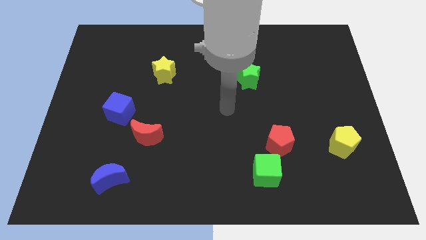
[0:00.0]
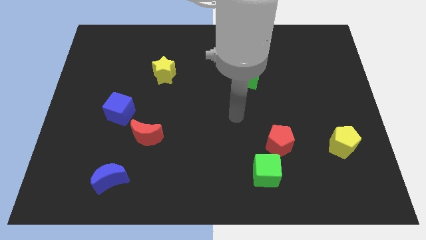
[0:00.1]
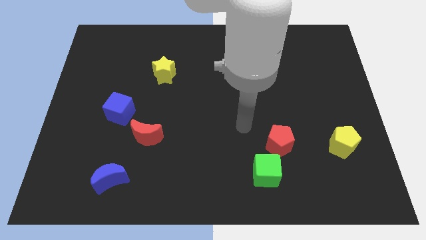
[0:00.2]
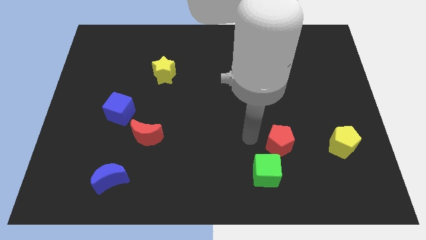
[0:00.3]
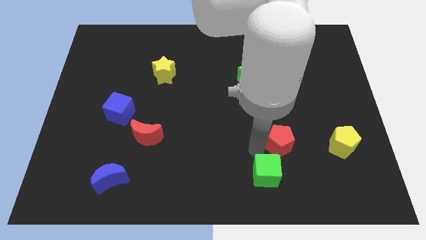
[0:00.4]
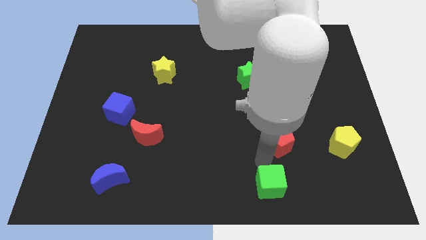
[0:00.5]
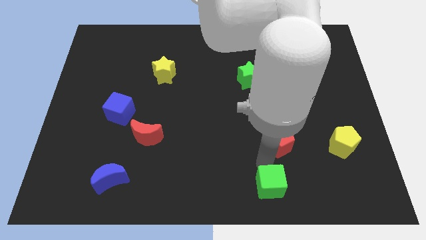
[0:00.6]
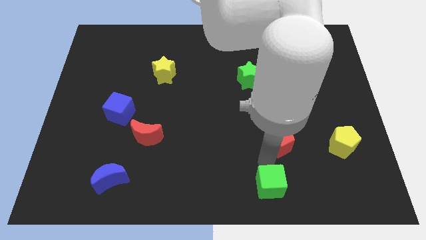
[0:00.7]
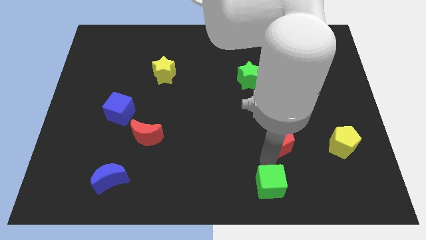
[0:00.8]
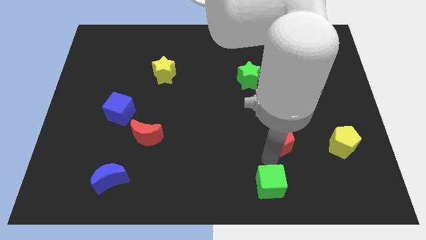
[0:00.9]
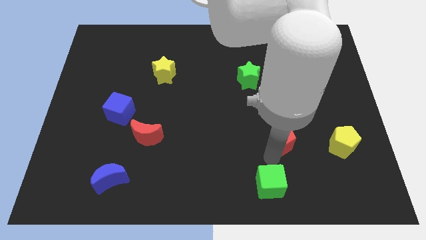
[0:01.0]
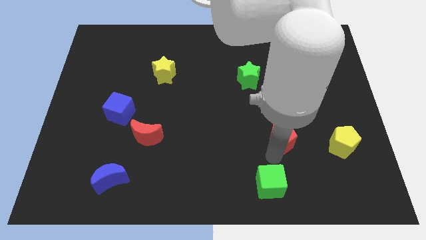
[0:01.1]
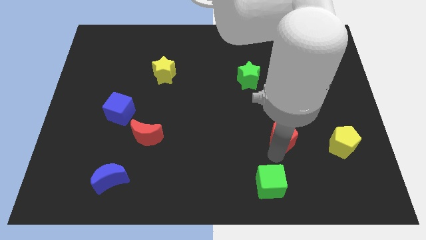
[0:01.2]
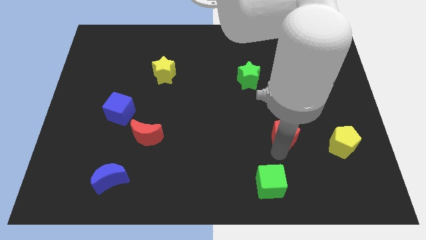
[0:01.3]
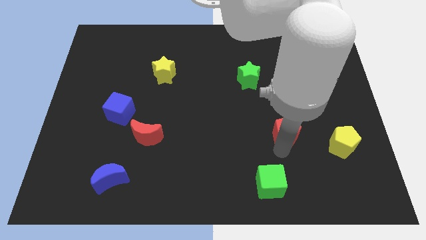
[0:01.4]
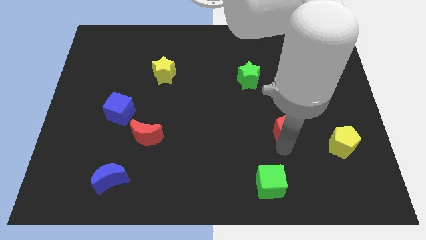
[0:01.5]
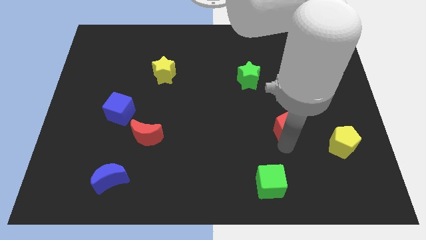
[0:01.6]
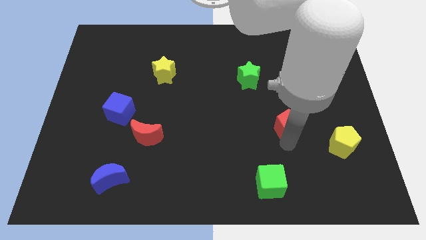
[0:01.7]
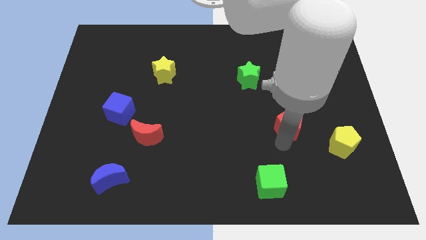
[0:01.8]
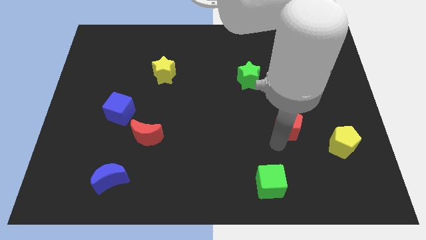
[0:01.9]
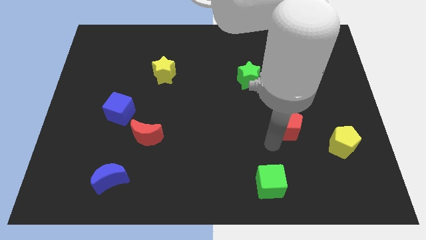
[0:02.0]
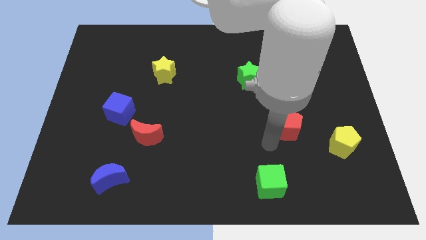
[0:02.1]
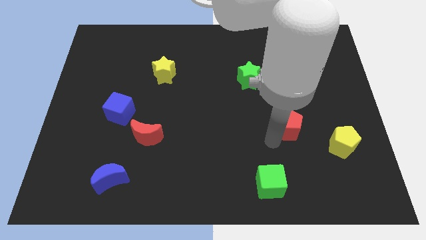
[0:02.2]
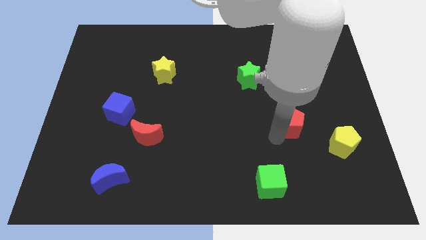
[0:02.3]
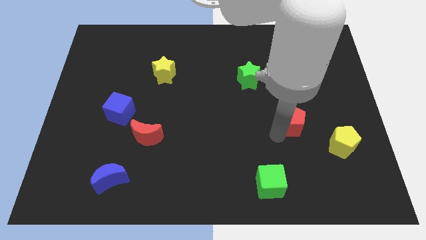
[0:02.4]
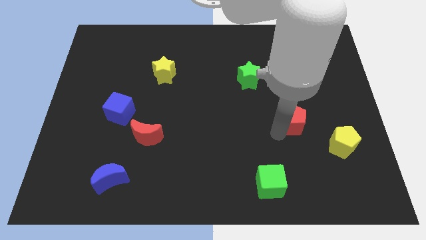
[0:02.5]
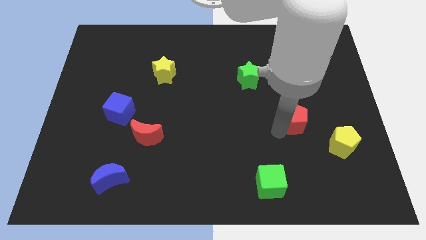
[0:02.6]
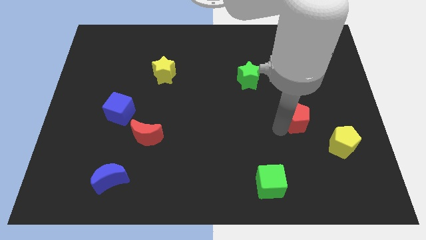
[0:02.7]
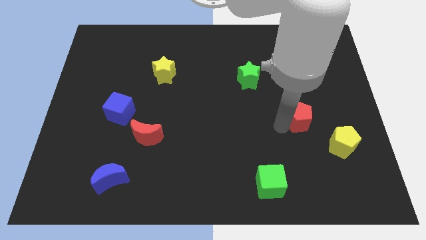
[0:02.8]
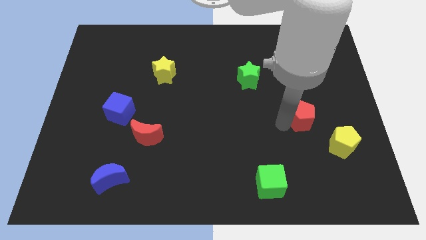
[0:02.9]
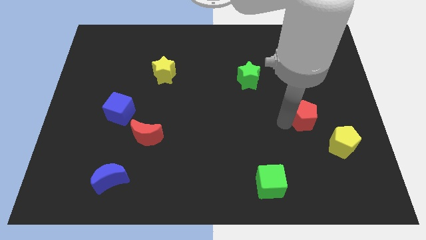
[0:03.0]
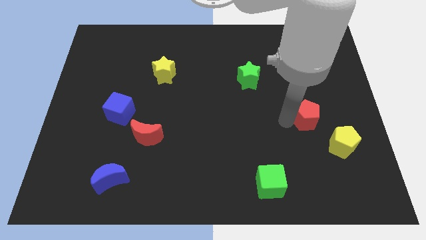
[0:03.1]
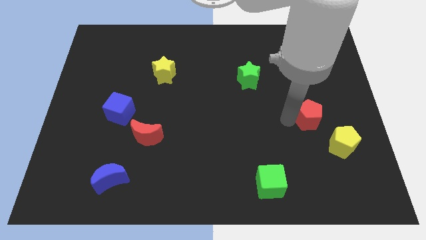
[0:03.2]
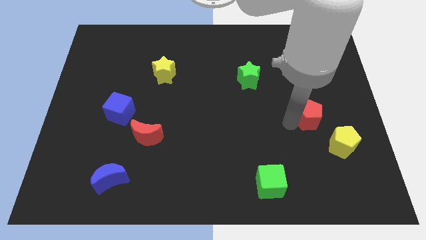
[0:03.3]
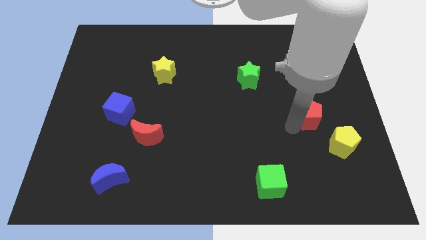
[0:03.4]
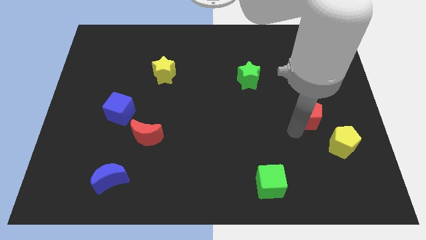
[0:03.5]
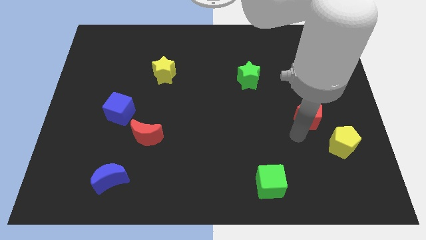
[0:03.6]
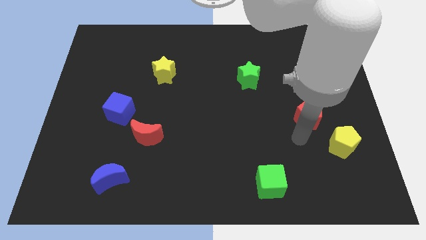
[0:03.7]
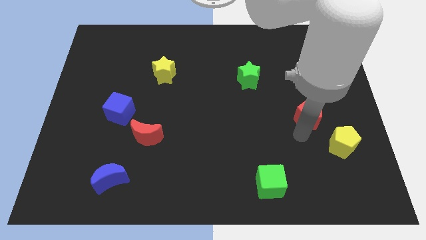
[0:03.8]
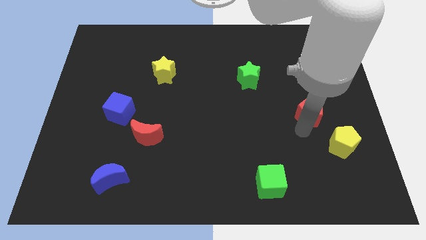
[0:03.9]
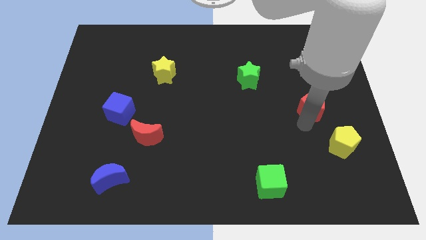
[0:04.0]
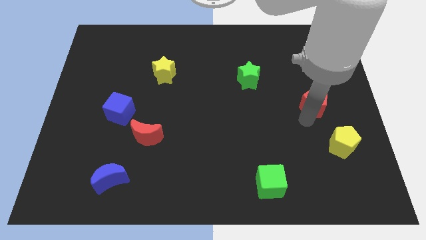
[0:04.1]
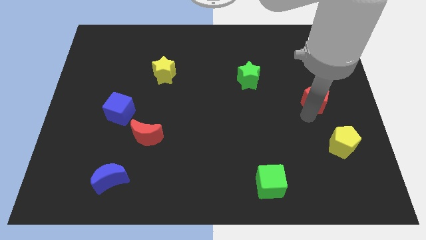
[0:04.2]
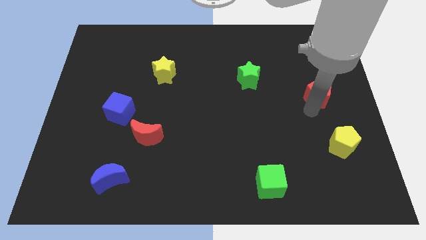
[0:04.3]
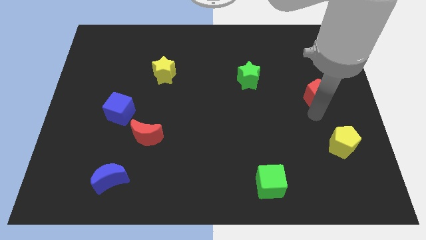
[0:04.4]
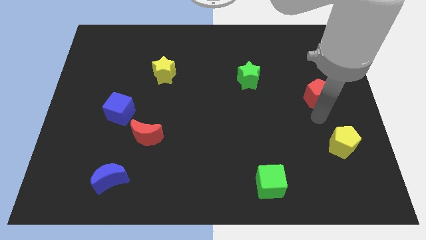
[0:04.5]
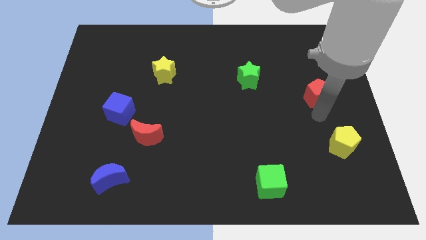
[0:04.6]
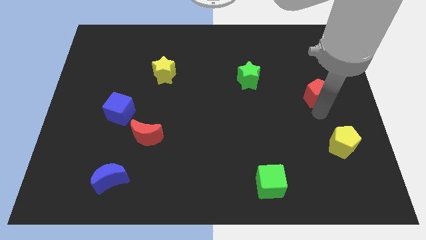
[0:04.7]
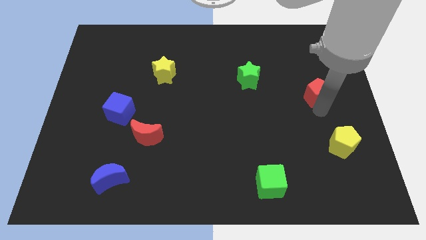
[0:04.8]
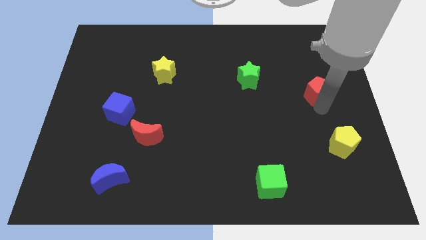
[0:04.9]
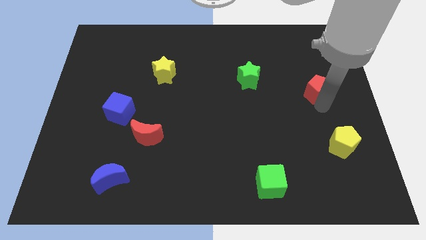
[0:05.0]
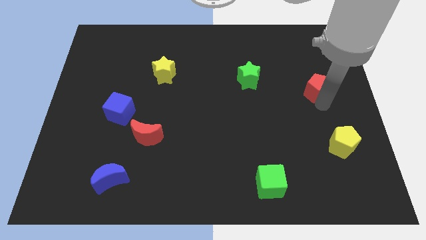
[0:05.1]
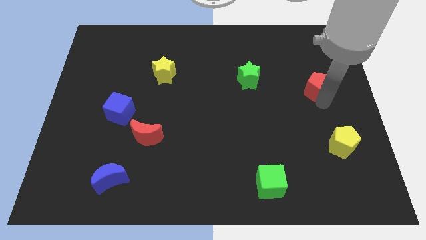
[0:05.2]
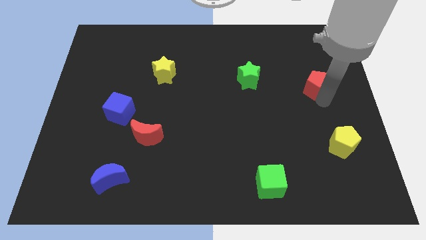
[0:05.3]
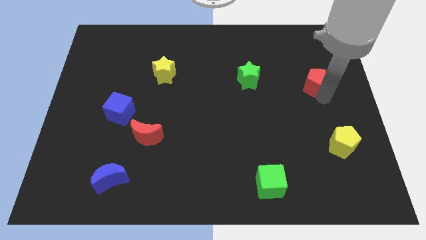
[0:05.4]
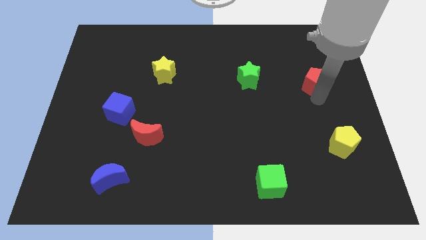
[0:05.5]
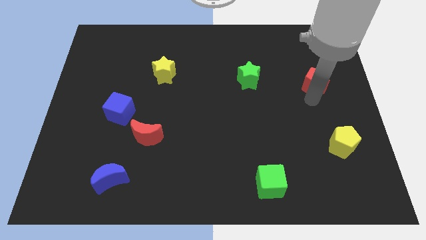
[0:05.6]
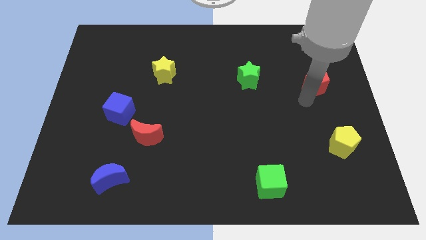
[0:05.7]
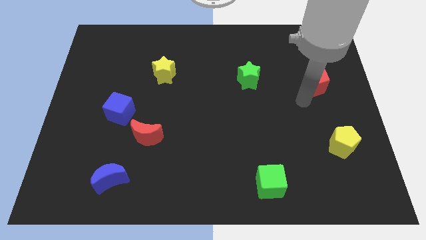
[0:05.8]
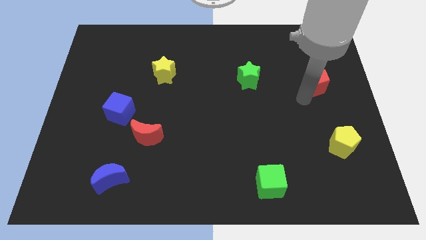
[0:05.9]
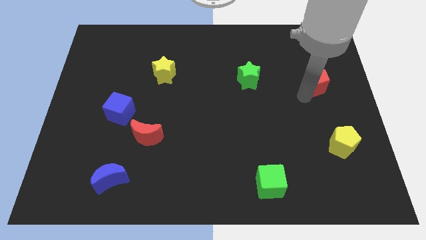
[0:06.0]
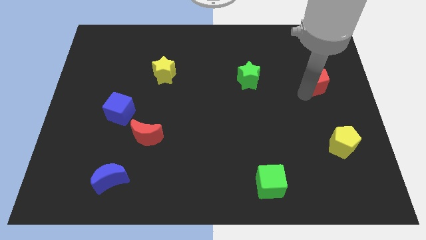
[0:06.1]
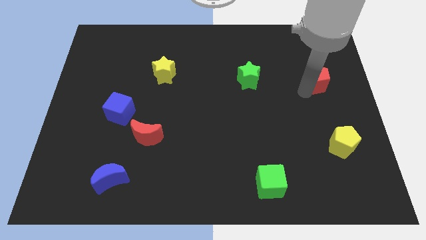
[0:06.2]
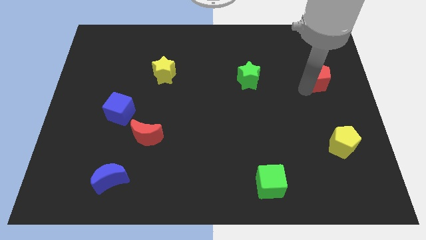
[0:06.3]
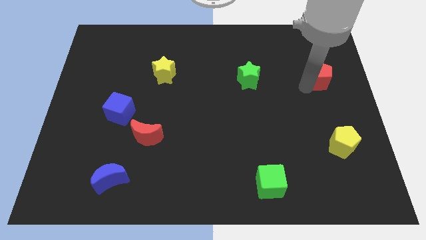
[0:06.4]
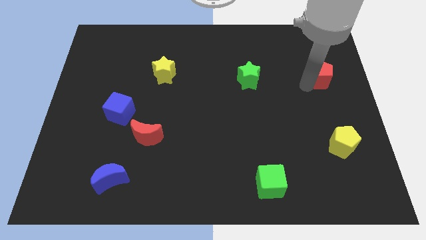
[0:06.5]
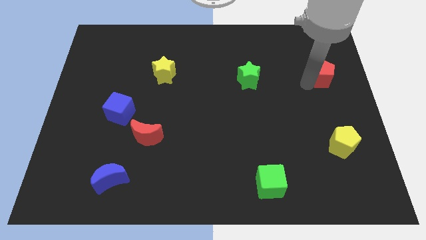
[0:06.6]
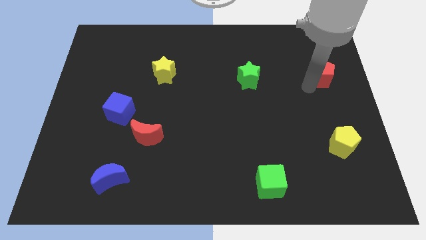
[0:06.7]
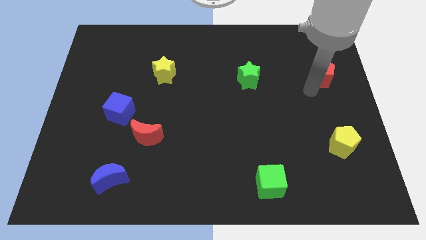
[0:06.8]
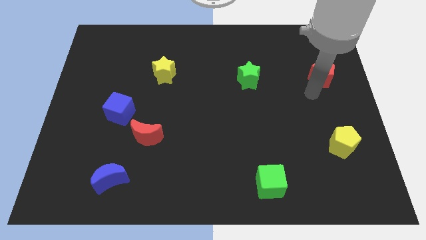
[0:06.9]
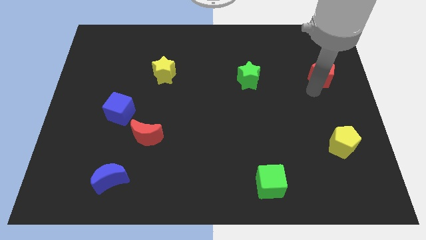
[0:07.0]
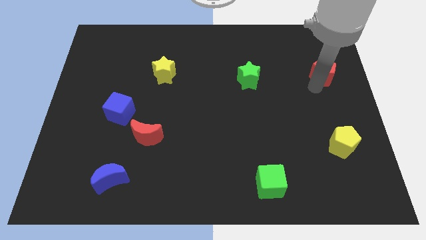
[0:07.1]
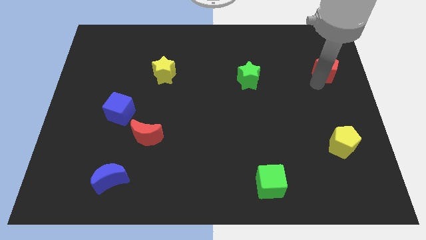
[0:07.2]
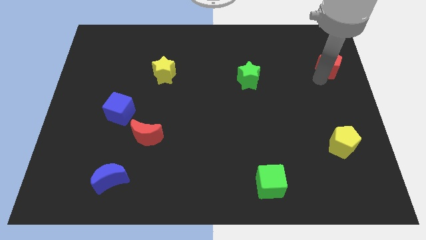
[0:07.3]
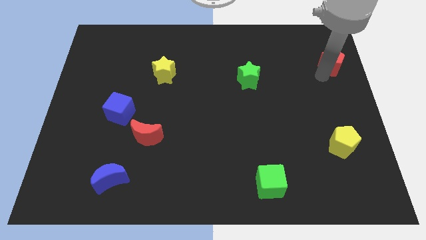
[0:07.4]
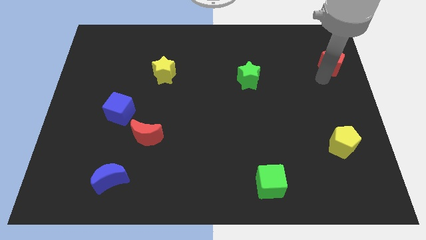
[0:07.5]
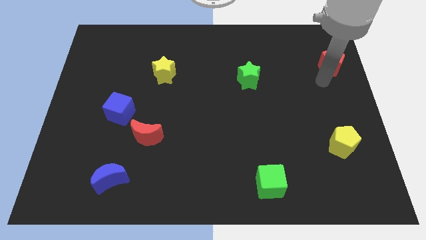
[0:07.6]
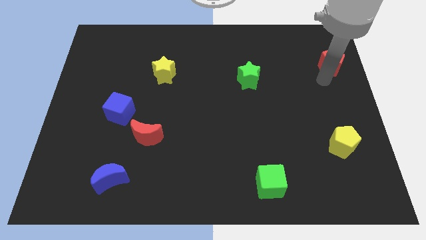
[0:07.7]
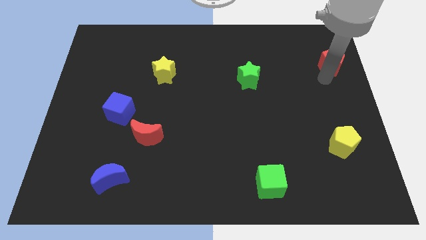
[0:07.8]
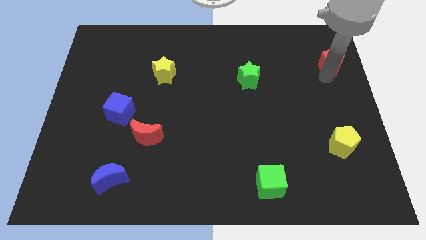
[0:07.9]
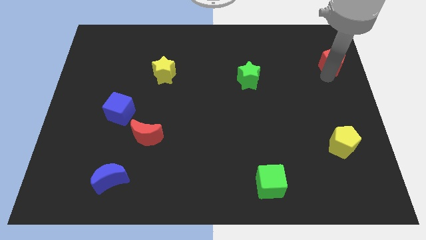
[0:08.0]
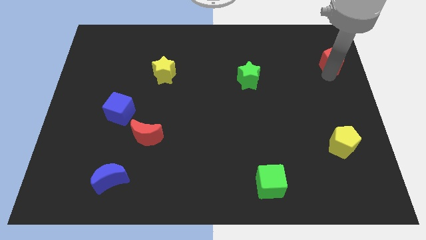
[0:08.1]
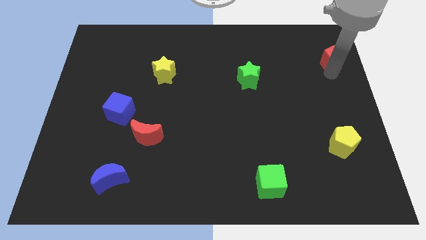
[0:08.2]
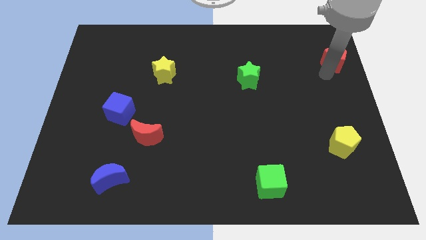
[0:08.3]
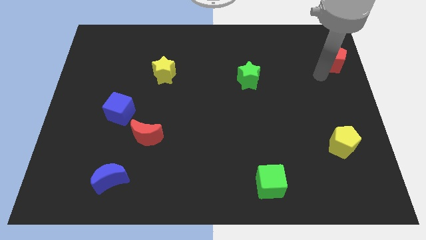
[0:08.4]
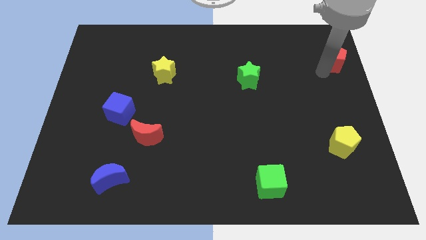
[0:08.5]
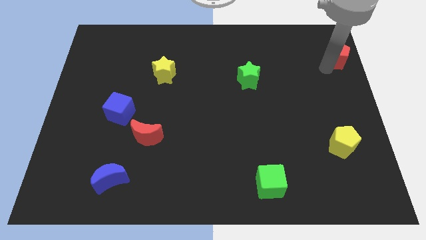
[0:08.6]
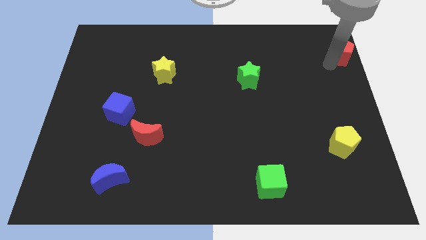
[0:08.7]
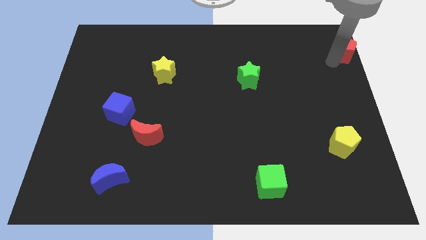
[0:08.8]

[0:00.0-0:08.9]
put the red pentagon to the top right corner
